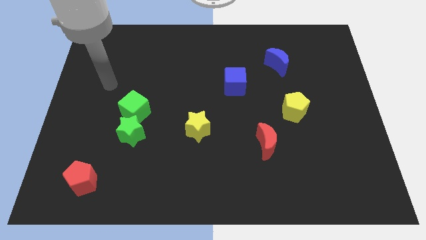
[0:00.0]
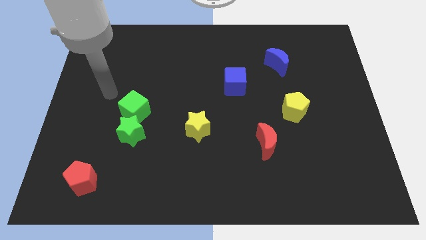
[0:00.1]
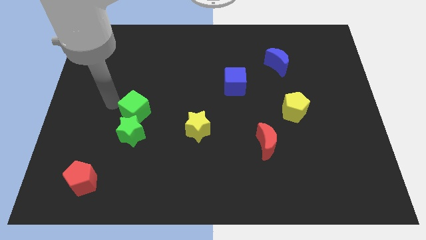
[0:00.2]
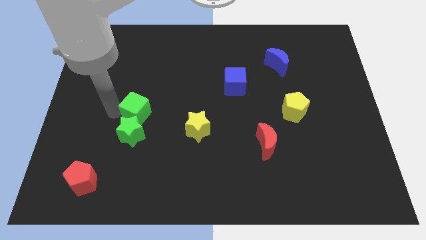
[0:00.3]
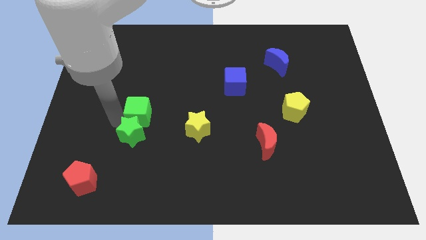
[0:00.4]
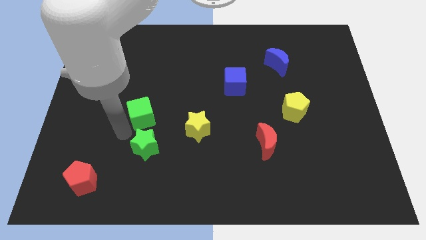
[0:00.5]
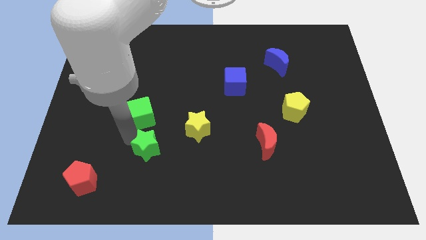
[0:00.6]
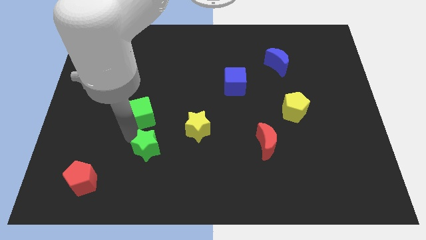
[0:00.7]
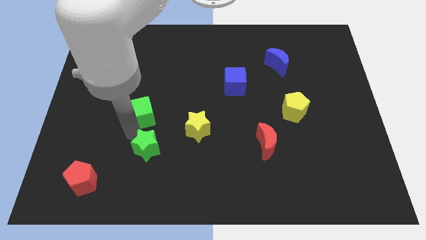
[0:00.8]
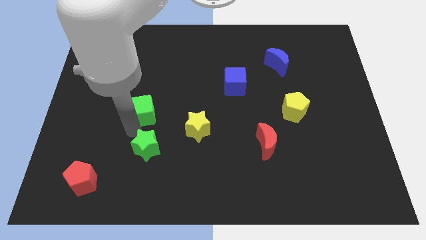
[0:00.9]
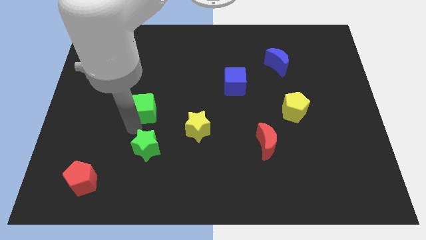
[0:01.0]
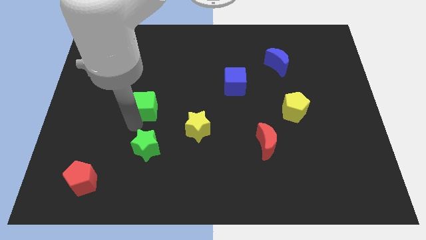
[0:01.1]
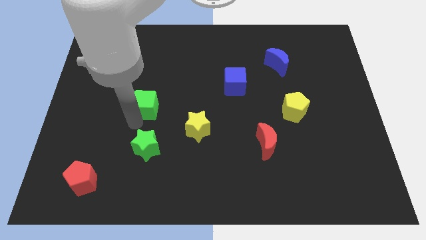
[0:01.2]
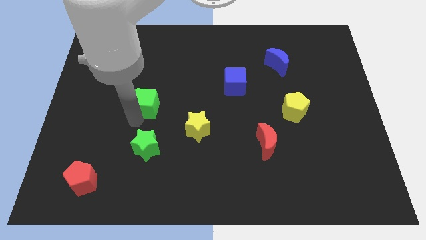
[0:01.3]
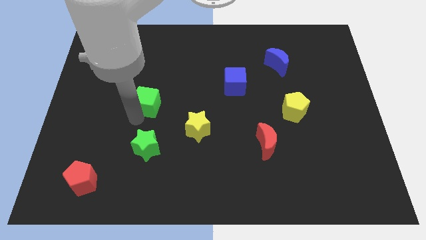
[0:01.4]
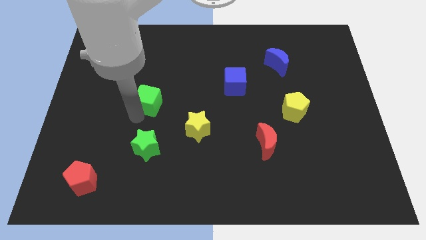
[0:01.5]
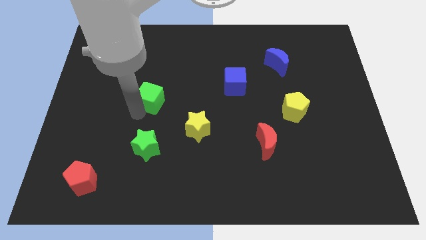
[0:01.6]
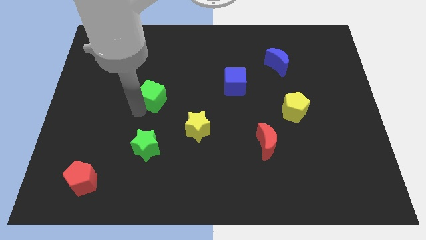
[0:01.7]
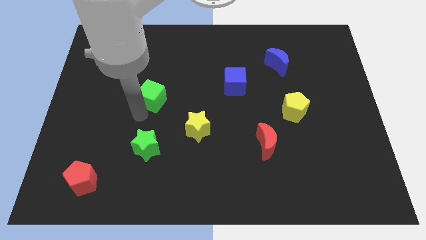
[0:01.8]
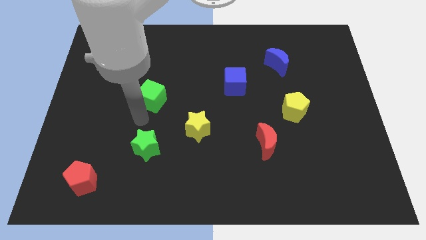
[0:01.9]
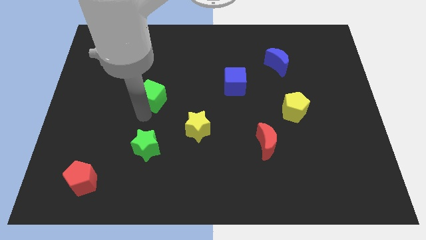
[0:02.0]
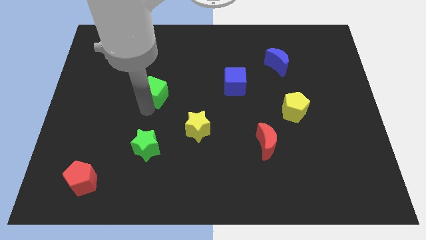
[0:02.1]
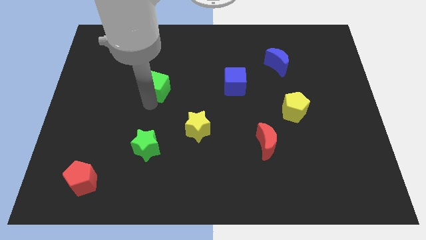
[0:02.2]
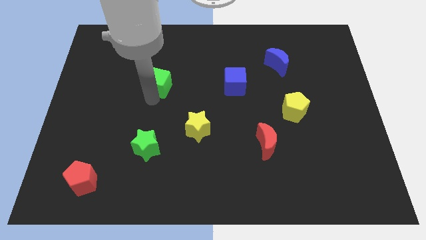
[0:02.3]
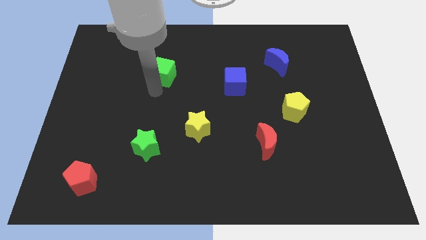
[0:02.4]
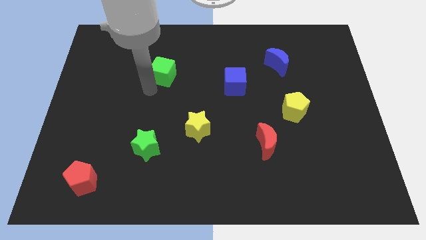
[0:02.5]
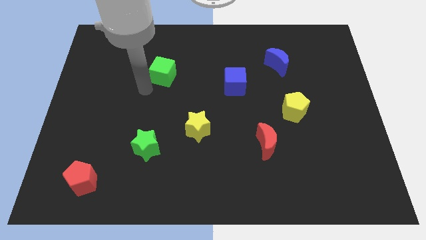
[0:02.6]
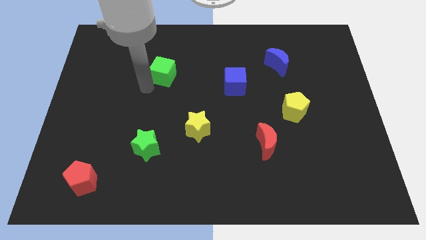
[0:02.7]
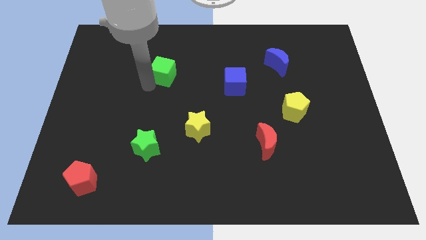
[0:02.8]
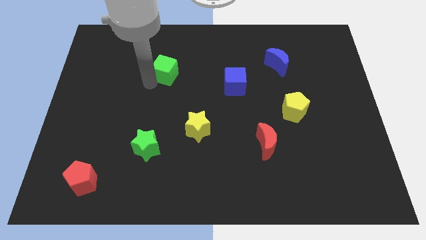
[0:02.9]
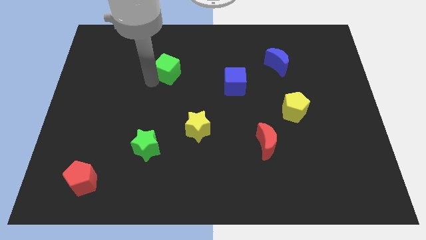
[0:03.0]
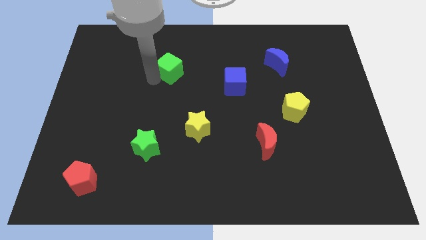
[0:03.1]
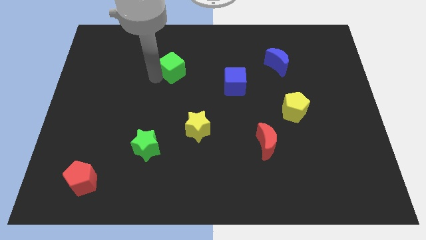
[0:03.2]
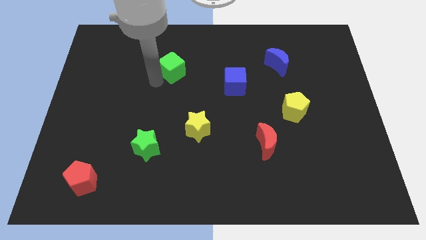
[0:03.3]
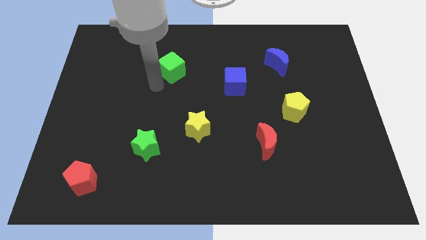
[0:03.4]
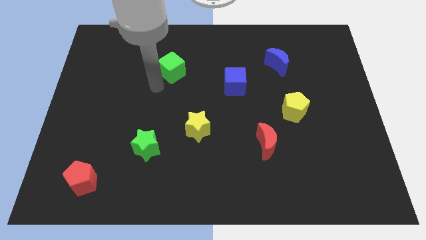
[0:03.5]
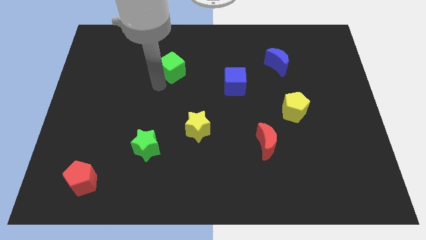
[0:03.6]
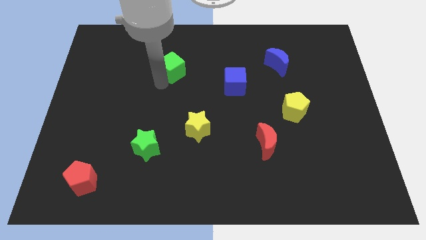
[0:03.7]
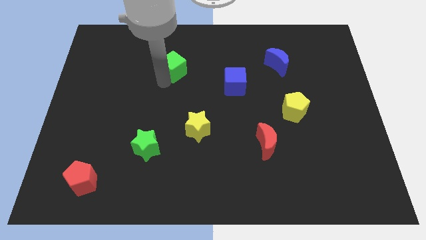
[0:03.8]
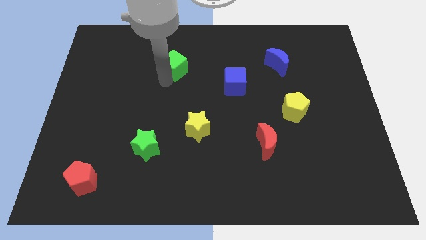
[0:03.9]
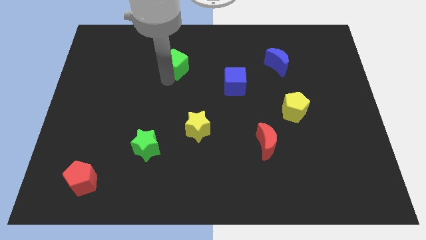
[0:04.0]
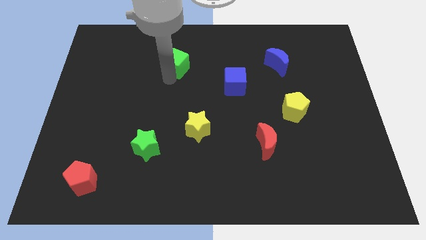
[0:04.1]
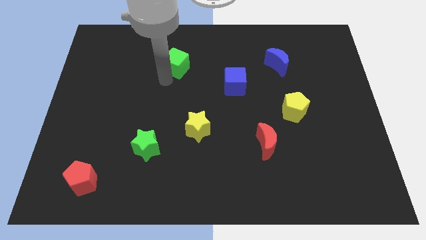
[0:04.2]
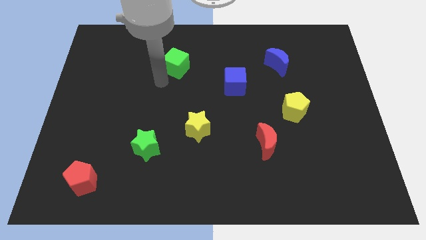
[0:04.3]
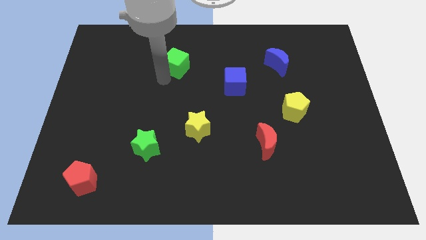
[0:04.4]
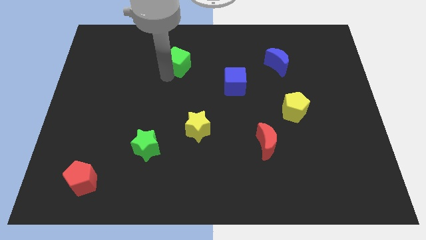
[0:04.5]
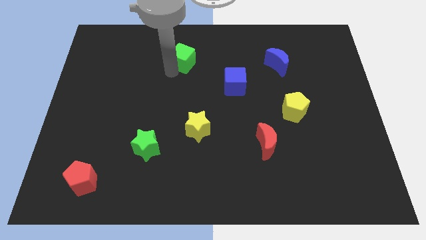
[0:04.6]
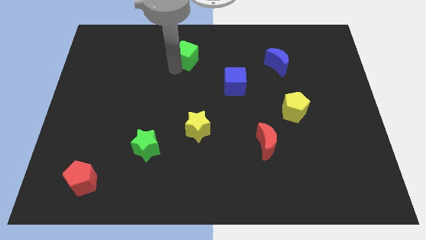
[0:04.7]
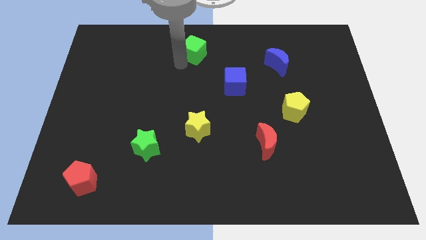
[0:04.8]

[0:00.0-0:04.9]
slide the green cube to the towards your base

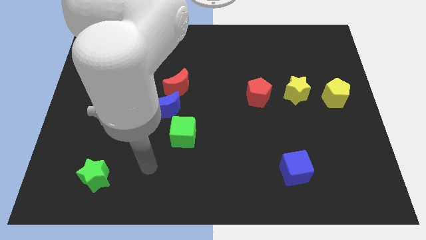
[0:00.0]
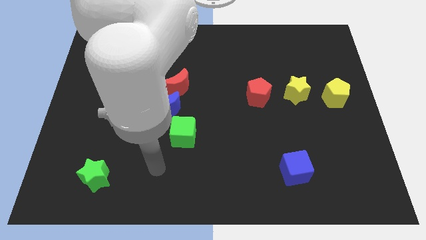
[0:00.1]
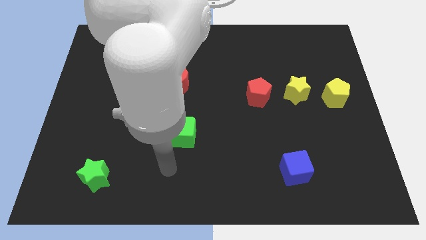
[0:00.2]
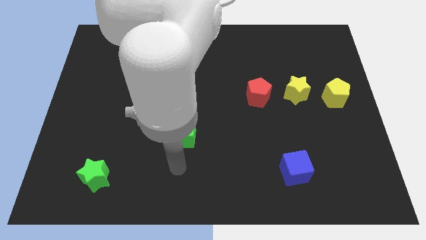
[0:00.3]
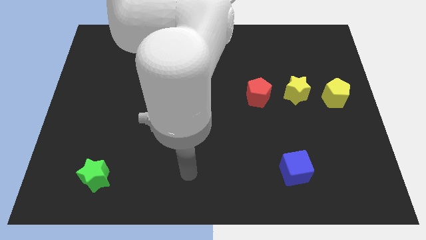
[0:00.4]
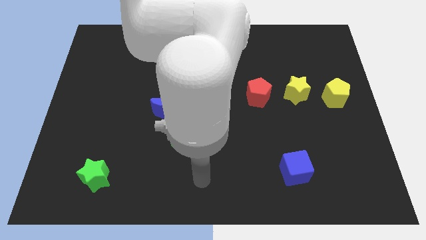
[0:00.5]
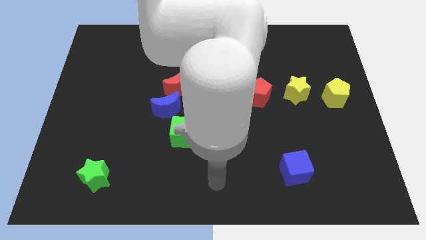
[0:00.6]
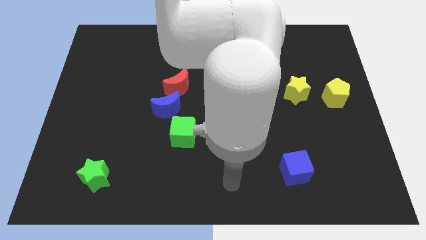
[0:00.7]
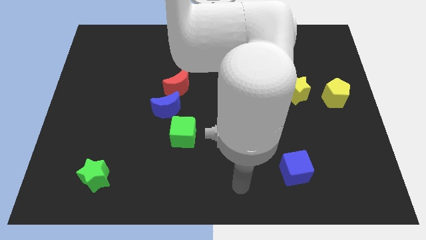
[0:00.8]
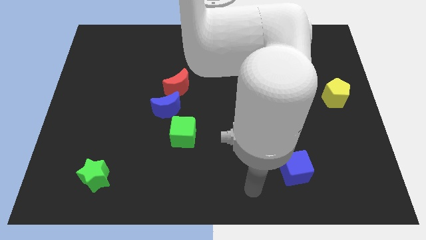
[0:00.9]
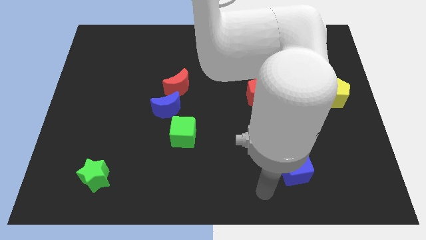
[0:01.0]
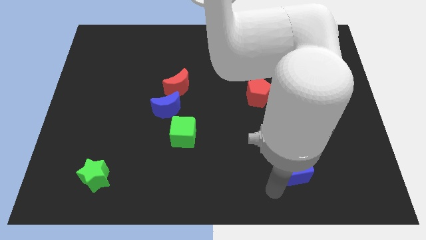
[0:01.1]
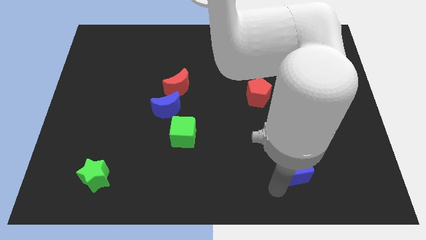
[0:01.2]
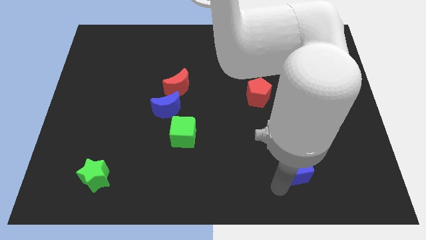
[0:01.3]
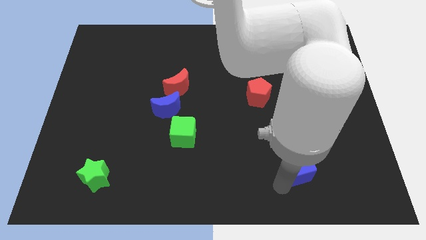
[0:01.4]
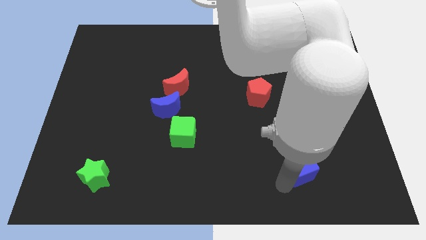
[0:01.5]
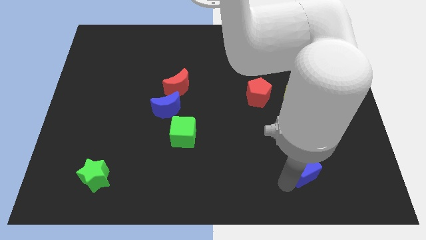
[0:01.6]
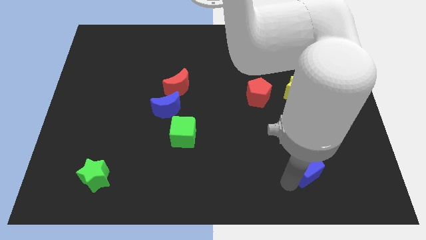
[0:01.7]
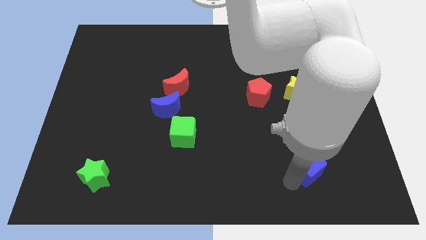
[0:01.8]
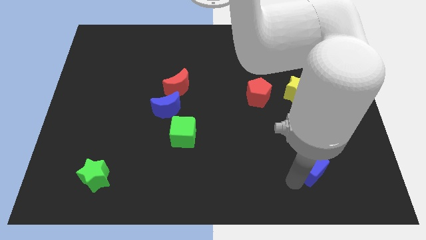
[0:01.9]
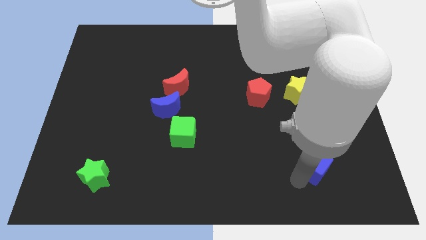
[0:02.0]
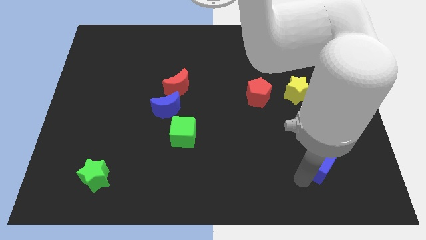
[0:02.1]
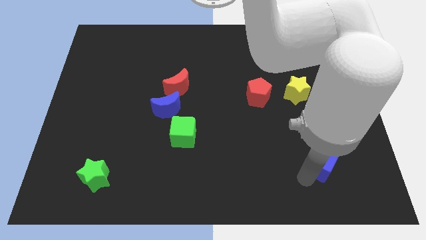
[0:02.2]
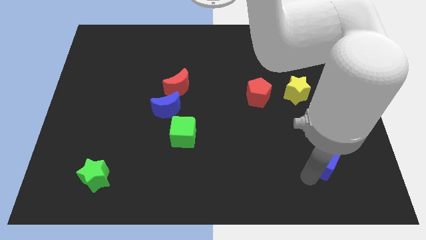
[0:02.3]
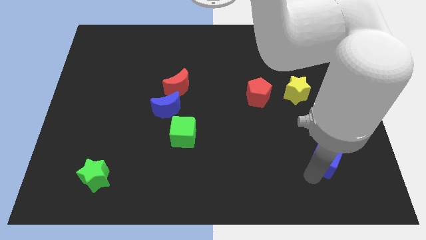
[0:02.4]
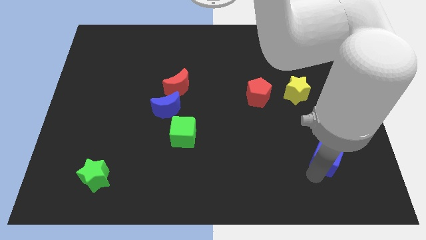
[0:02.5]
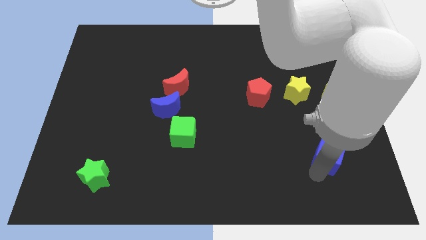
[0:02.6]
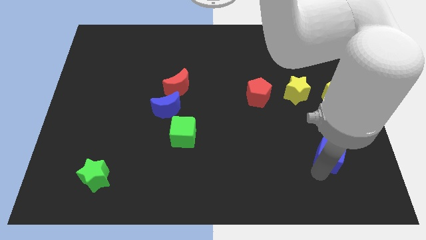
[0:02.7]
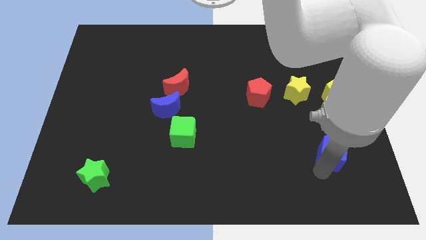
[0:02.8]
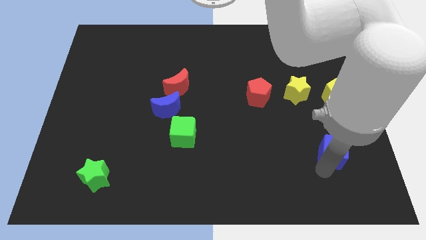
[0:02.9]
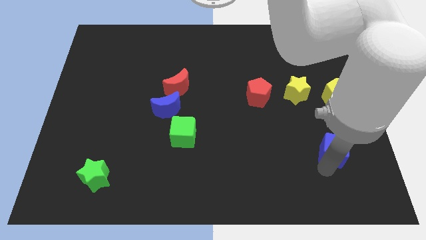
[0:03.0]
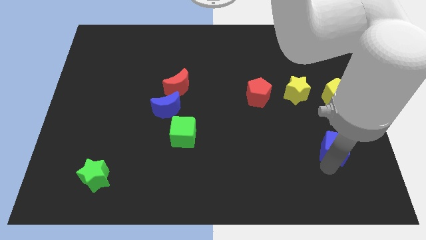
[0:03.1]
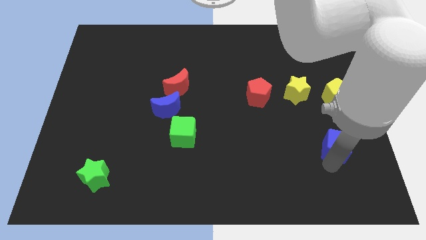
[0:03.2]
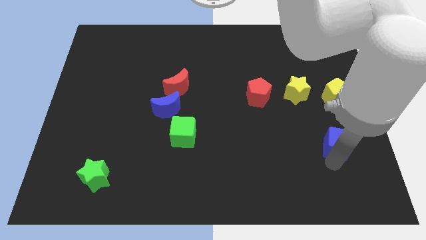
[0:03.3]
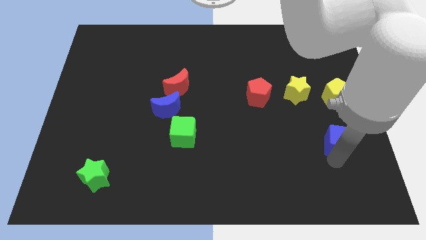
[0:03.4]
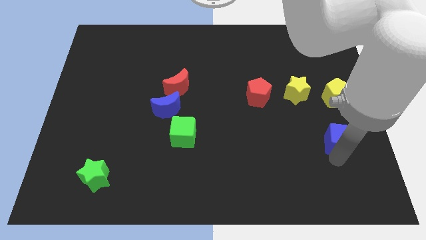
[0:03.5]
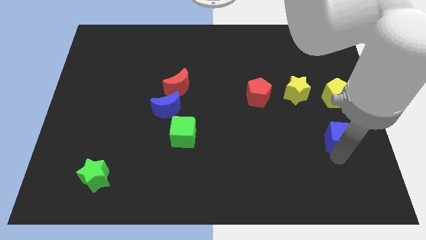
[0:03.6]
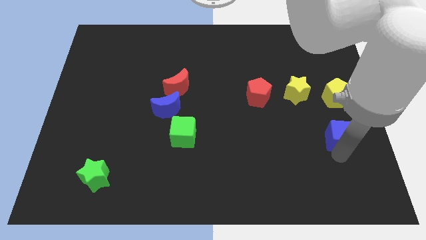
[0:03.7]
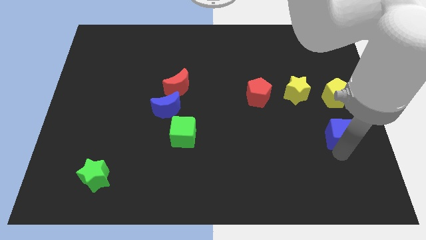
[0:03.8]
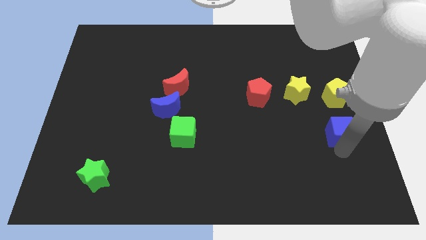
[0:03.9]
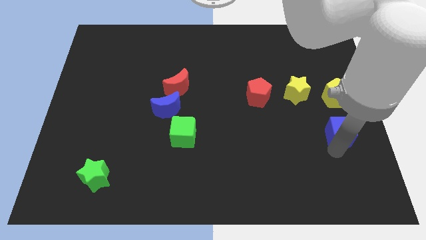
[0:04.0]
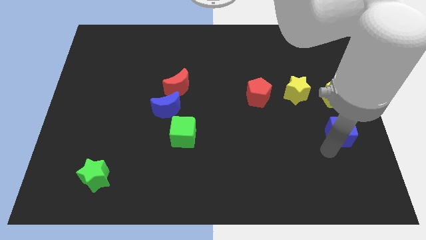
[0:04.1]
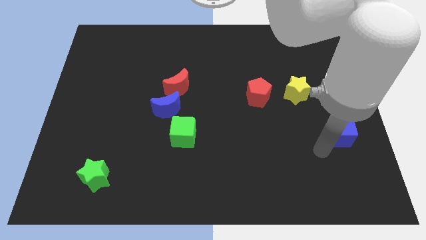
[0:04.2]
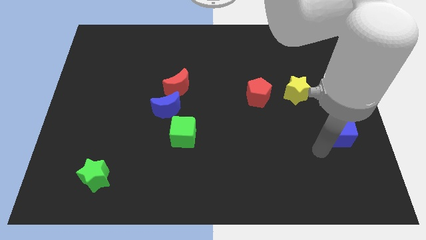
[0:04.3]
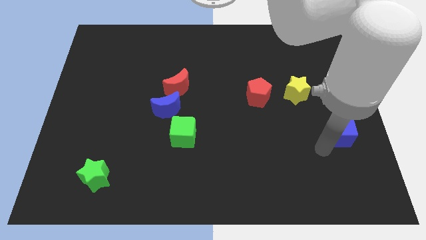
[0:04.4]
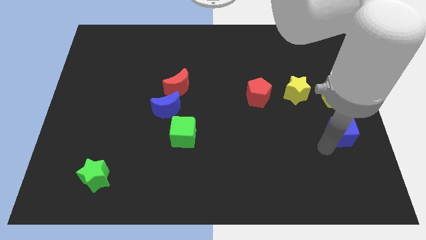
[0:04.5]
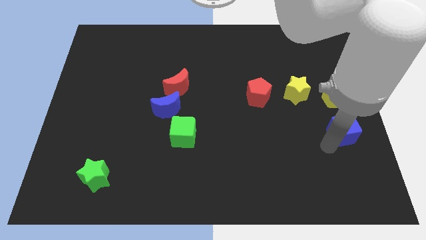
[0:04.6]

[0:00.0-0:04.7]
slide the blue cube to the right side
